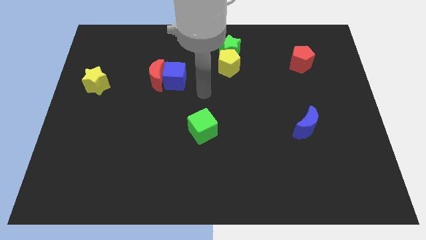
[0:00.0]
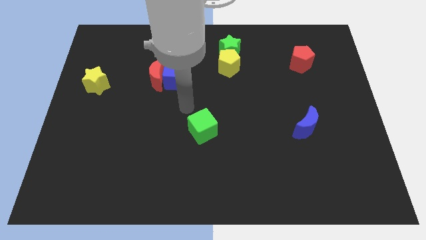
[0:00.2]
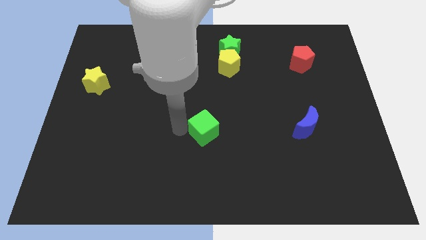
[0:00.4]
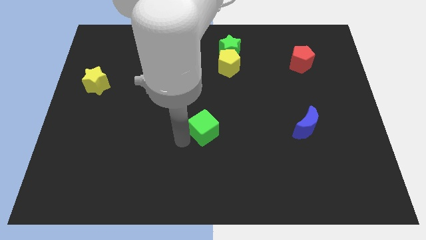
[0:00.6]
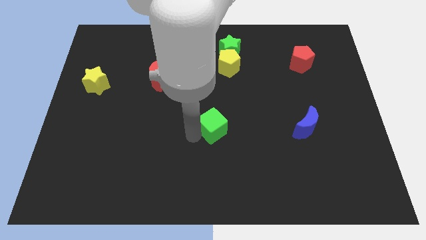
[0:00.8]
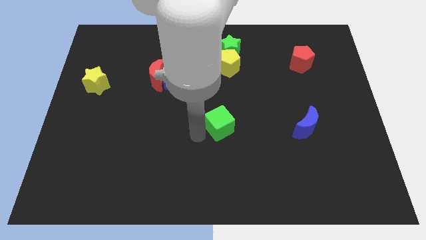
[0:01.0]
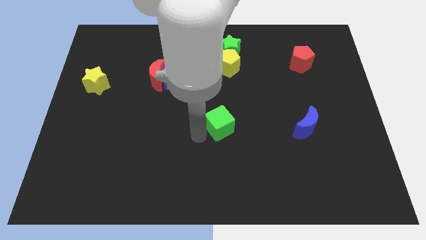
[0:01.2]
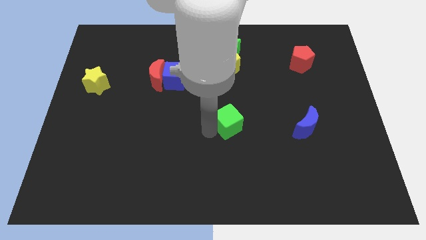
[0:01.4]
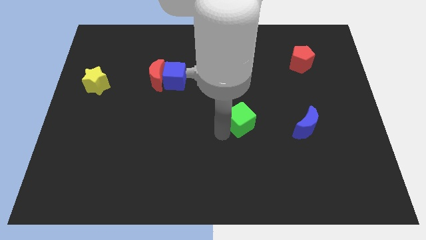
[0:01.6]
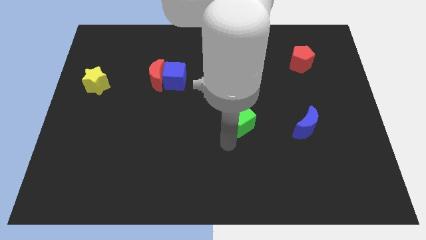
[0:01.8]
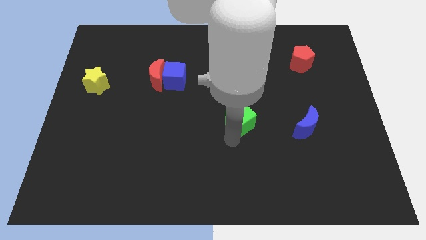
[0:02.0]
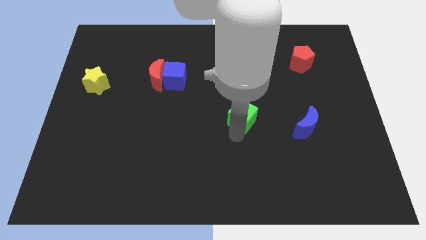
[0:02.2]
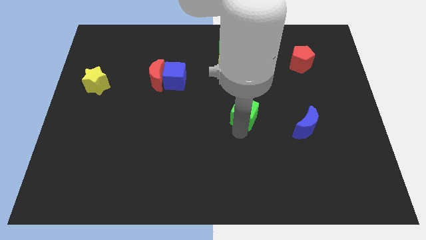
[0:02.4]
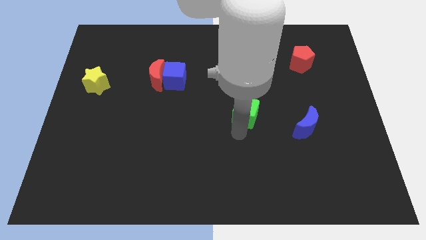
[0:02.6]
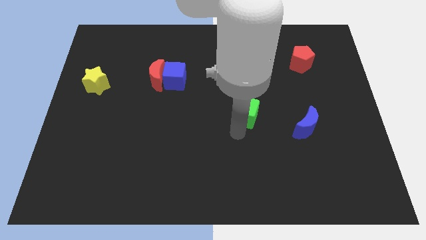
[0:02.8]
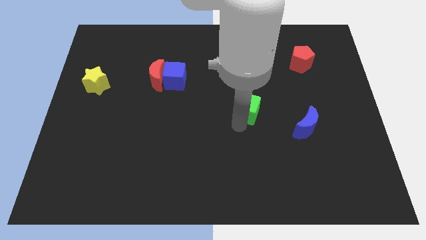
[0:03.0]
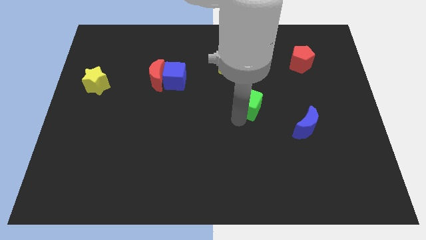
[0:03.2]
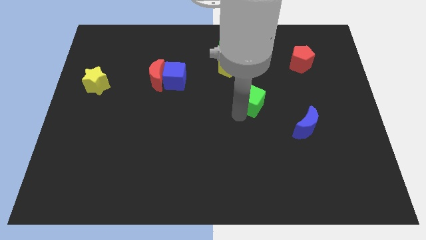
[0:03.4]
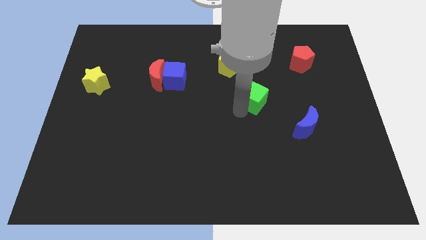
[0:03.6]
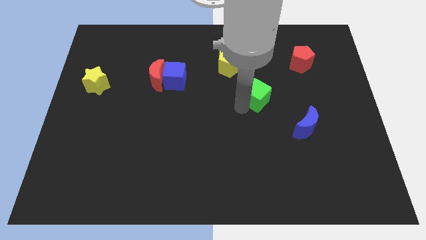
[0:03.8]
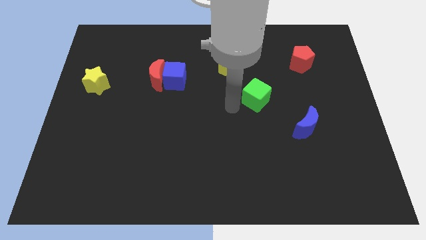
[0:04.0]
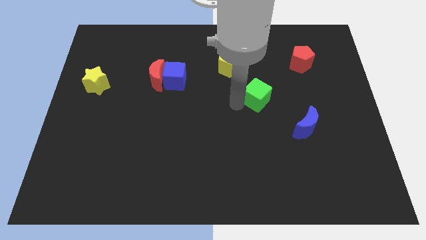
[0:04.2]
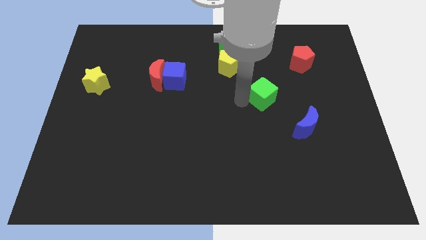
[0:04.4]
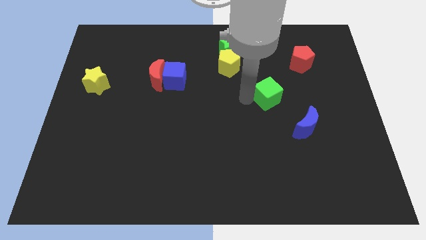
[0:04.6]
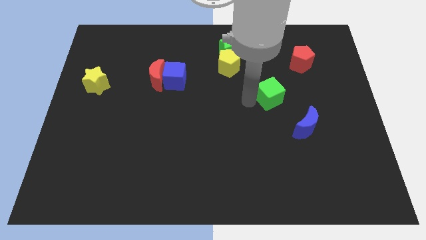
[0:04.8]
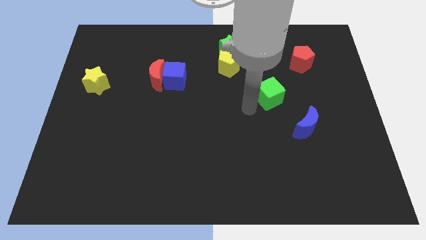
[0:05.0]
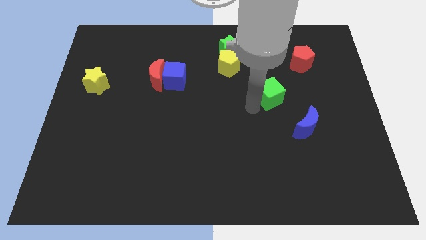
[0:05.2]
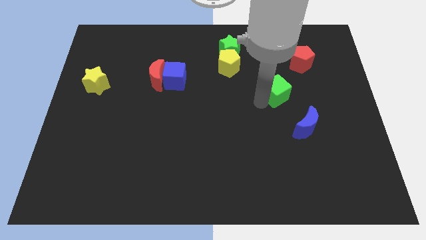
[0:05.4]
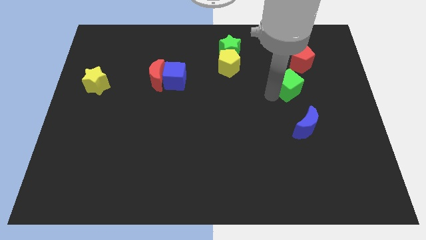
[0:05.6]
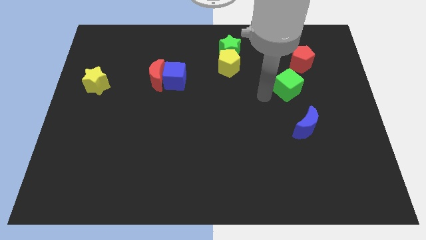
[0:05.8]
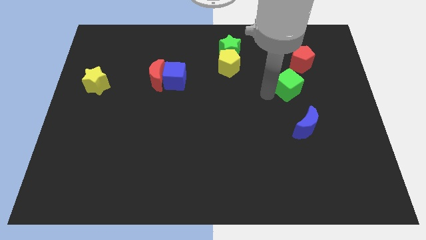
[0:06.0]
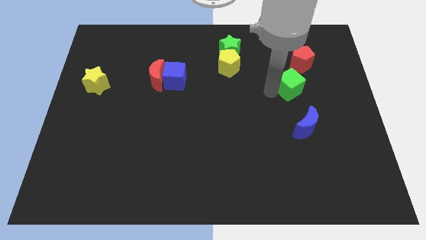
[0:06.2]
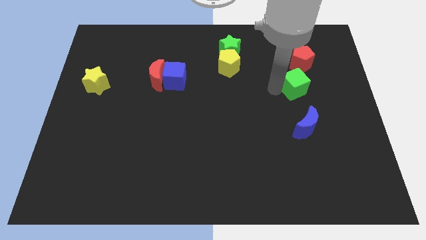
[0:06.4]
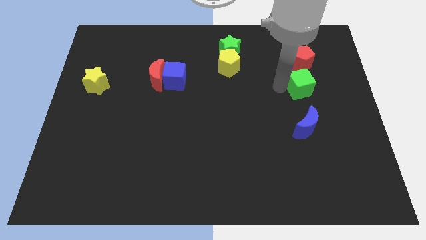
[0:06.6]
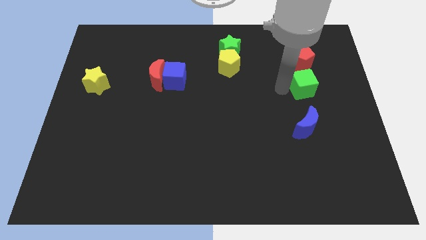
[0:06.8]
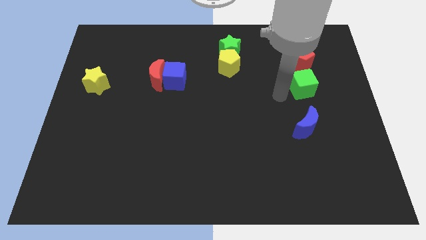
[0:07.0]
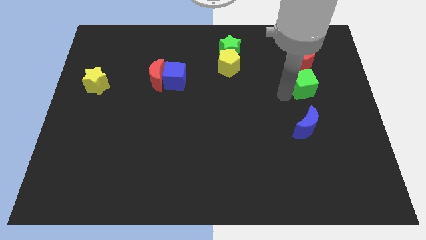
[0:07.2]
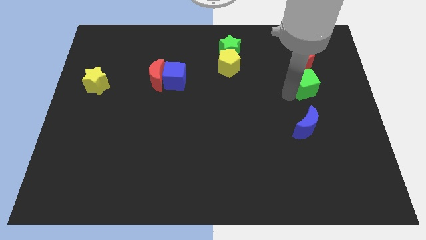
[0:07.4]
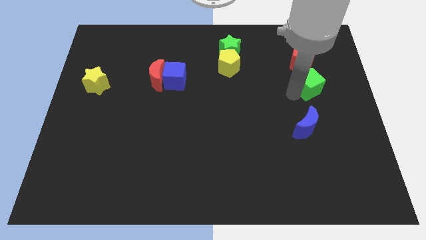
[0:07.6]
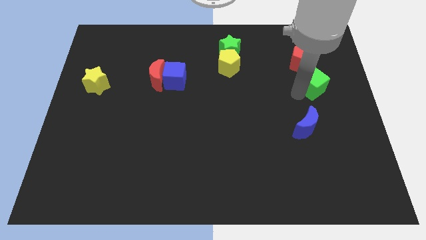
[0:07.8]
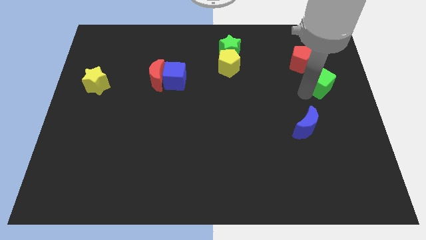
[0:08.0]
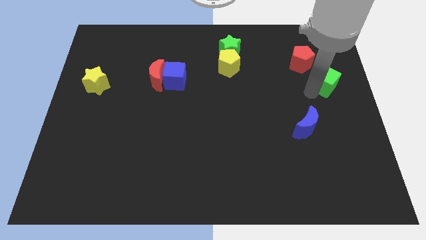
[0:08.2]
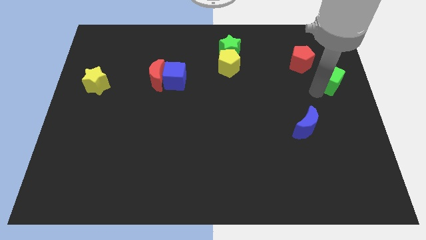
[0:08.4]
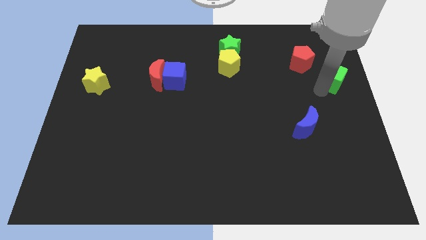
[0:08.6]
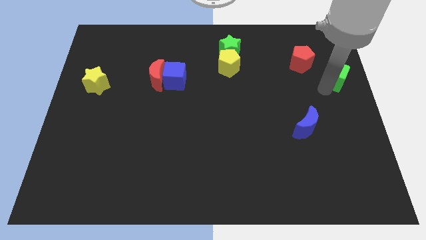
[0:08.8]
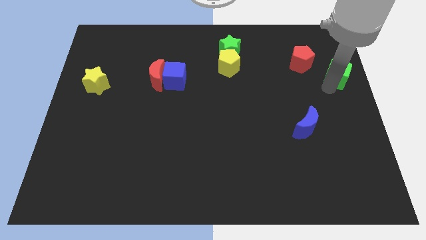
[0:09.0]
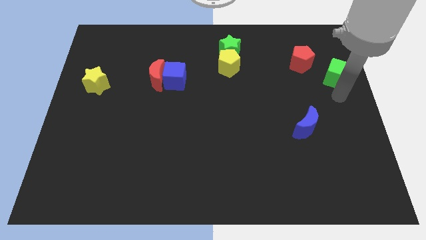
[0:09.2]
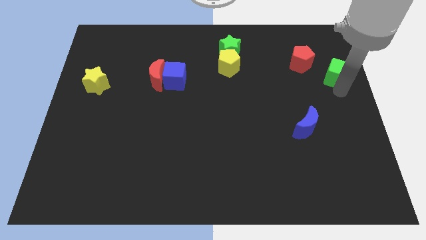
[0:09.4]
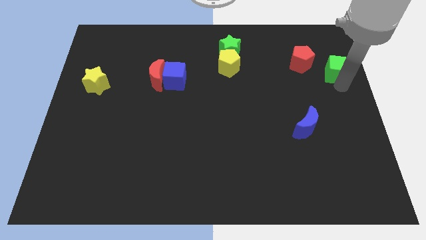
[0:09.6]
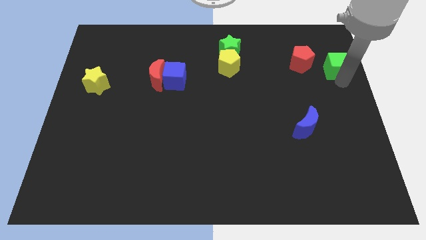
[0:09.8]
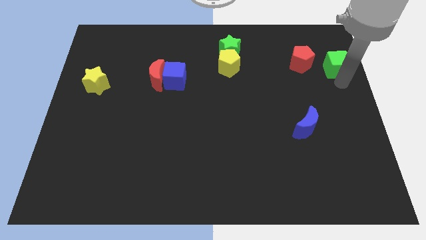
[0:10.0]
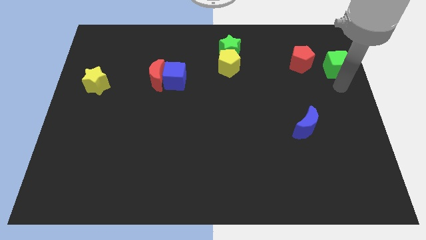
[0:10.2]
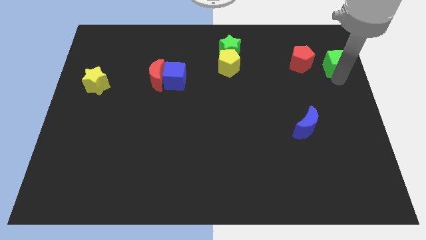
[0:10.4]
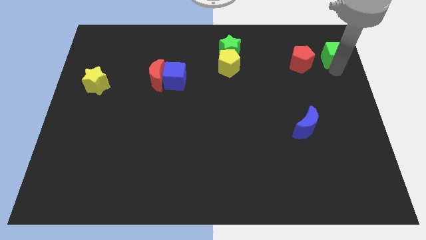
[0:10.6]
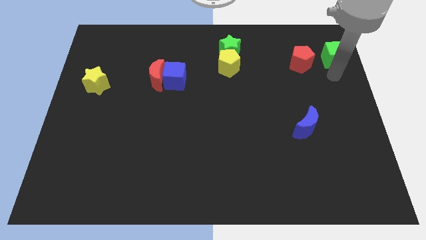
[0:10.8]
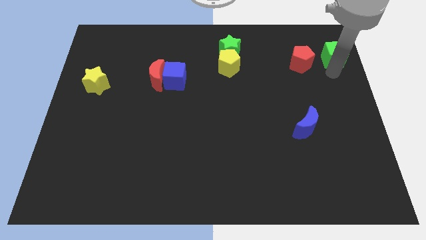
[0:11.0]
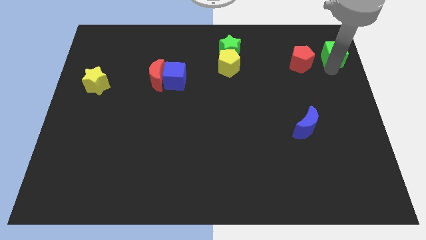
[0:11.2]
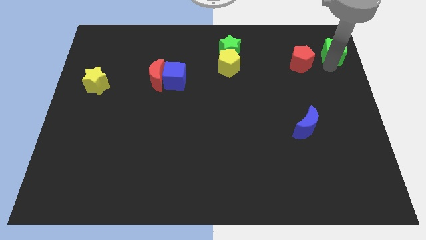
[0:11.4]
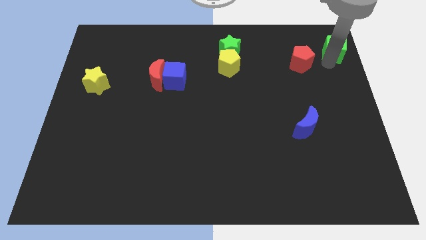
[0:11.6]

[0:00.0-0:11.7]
move the green cube to the top right of the board
